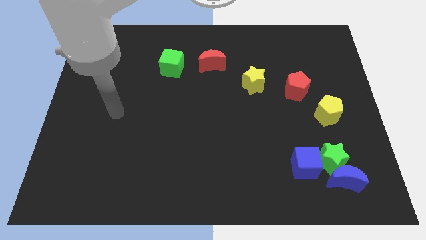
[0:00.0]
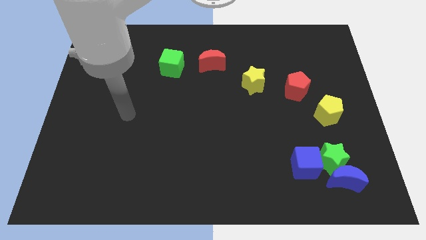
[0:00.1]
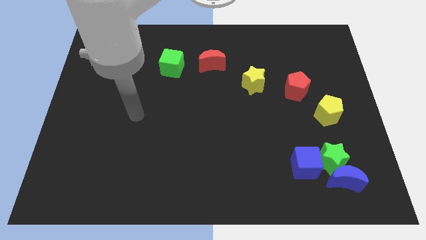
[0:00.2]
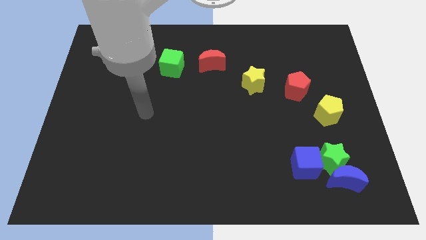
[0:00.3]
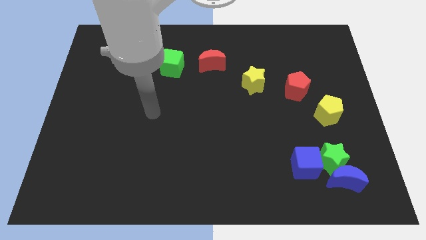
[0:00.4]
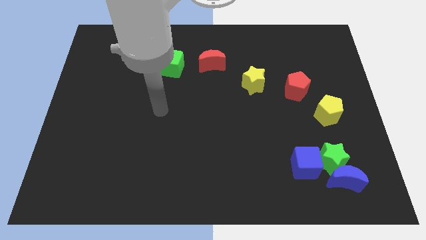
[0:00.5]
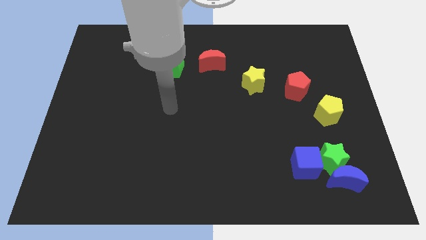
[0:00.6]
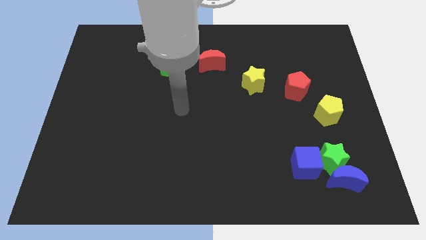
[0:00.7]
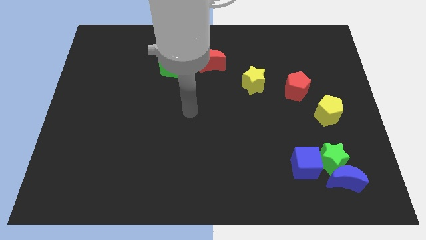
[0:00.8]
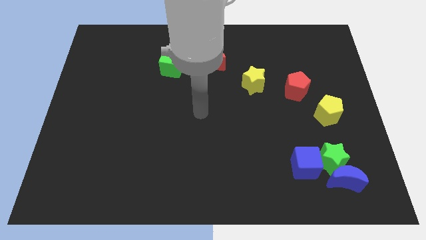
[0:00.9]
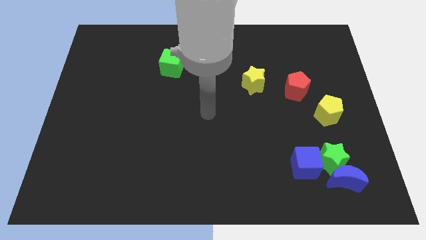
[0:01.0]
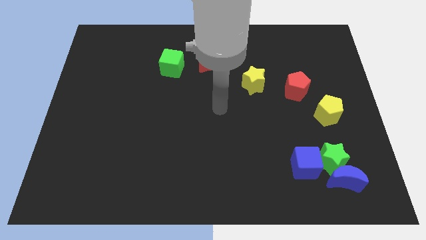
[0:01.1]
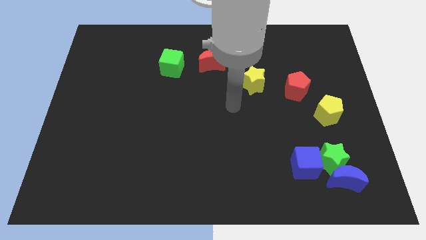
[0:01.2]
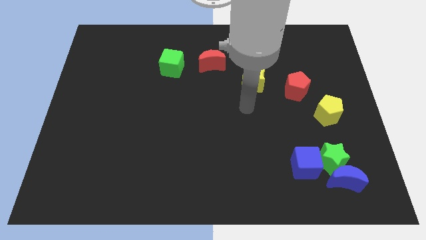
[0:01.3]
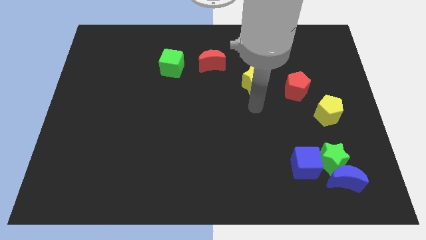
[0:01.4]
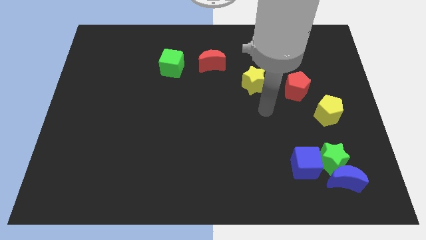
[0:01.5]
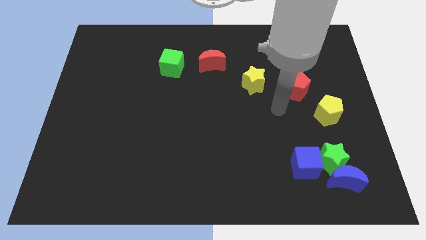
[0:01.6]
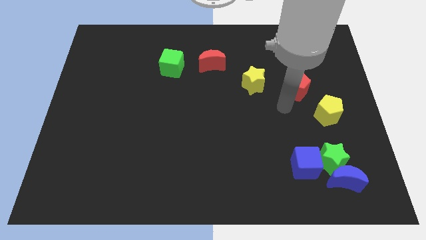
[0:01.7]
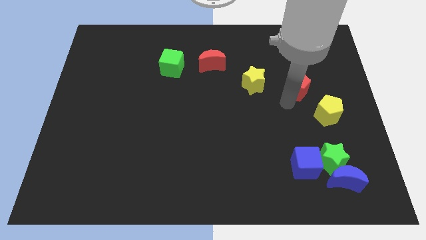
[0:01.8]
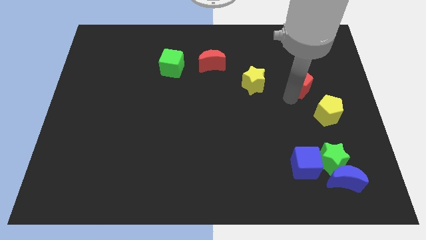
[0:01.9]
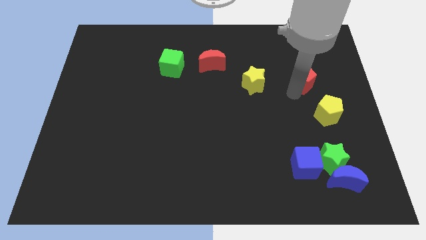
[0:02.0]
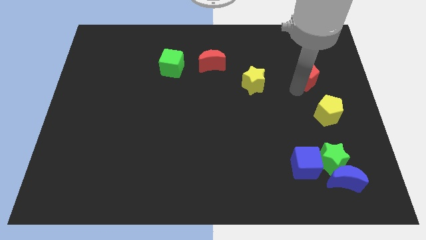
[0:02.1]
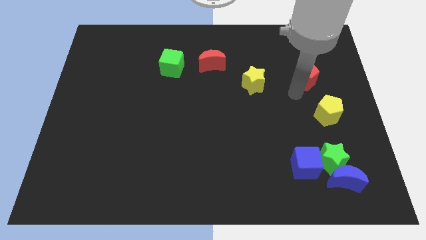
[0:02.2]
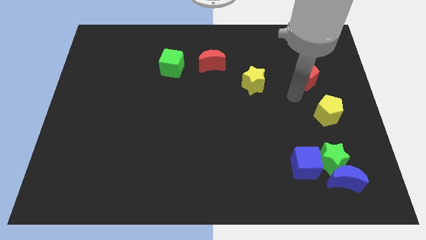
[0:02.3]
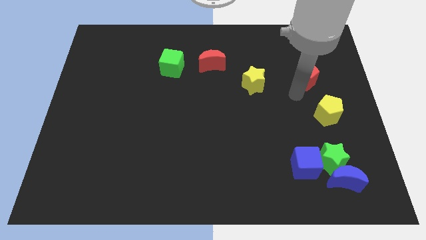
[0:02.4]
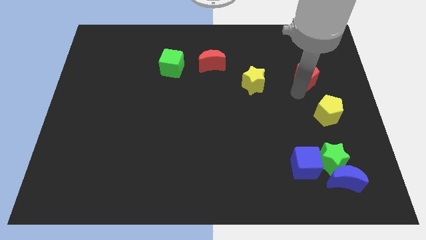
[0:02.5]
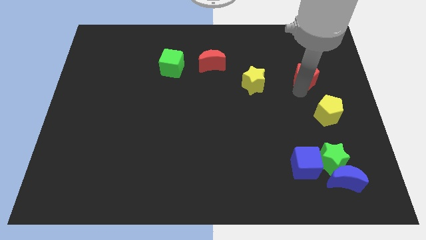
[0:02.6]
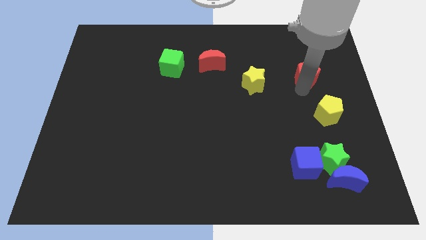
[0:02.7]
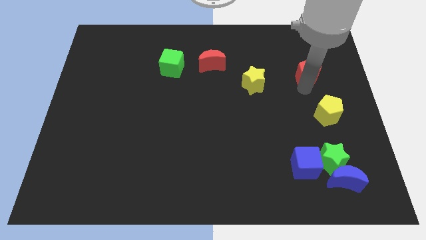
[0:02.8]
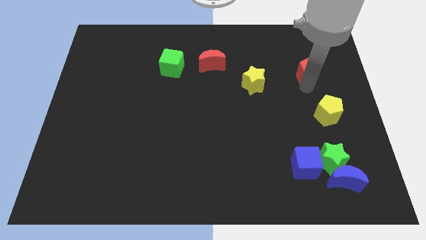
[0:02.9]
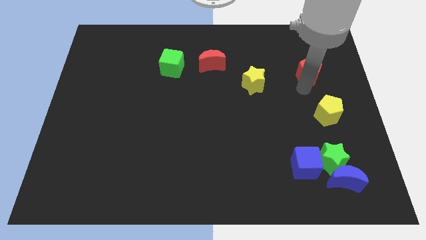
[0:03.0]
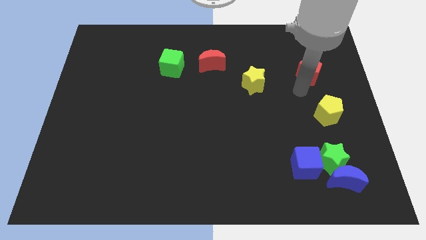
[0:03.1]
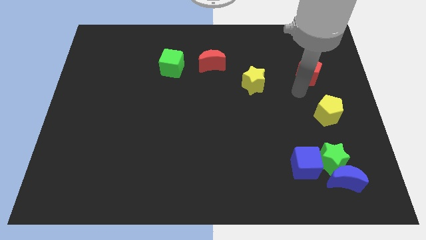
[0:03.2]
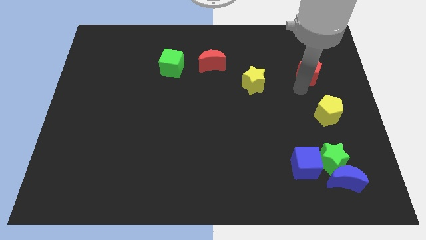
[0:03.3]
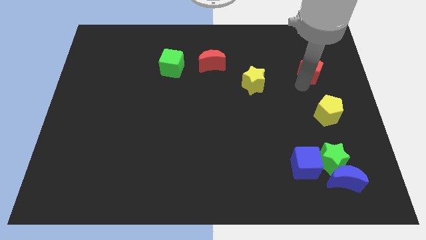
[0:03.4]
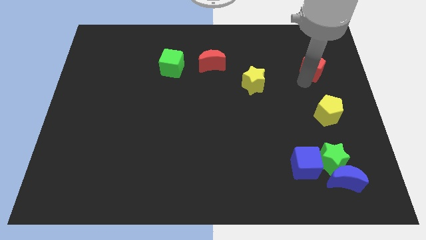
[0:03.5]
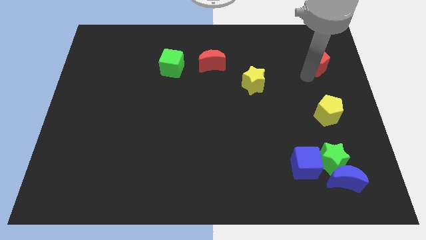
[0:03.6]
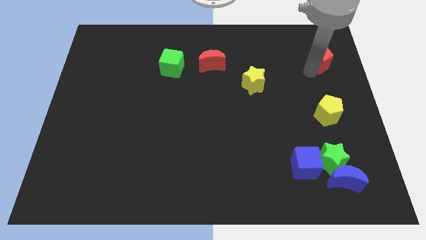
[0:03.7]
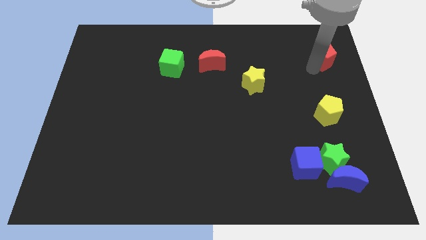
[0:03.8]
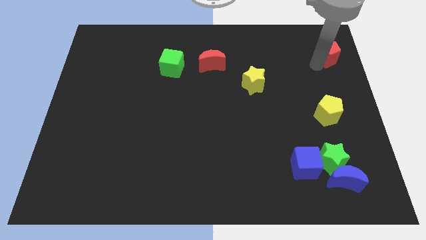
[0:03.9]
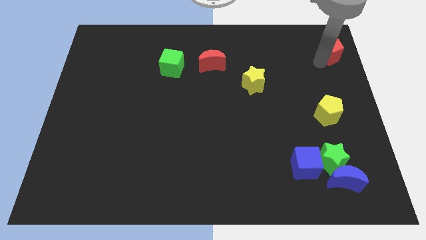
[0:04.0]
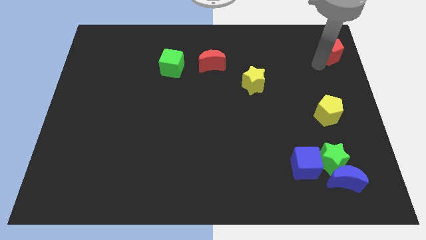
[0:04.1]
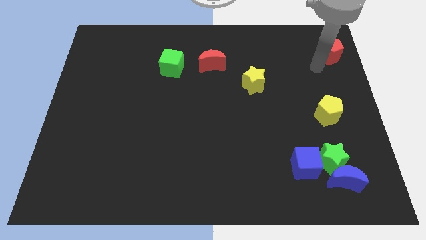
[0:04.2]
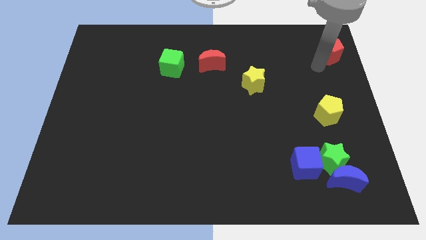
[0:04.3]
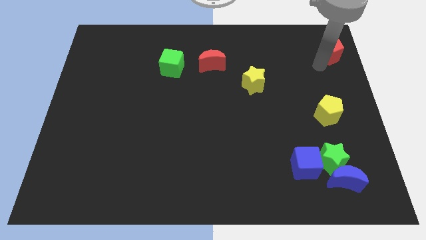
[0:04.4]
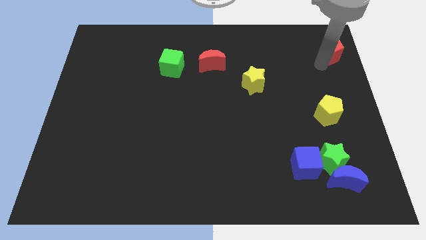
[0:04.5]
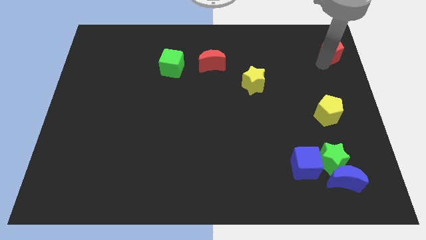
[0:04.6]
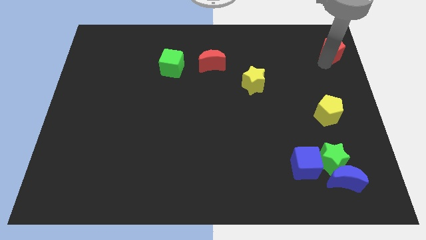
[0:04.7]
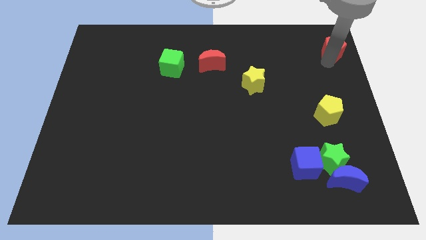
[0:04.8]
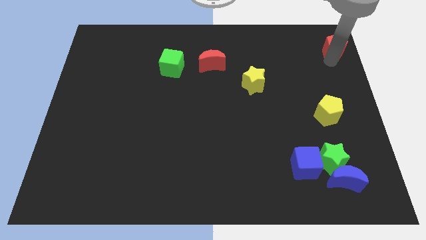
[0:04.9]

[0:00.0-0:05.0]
move the red pentagon to the top right

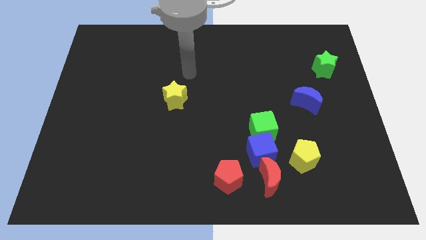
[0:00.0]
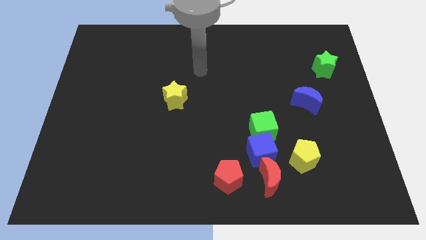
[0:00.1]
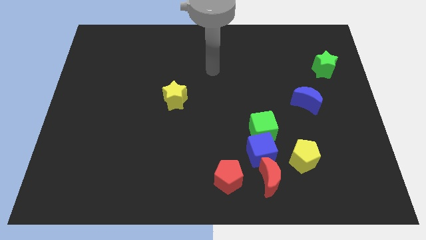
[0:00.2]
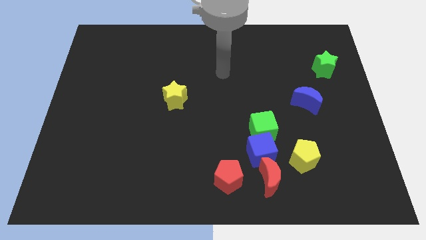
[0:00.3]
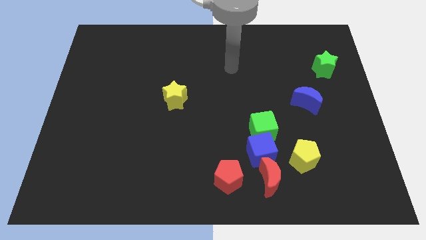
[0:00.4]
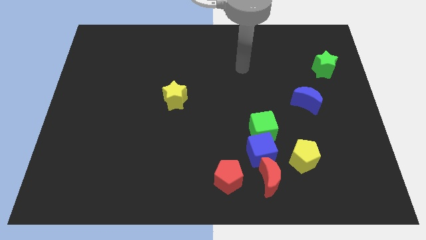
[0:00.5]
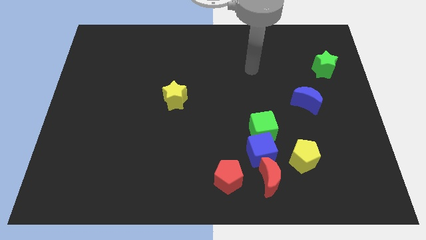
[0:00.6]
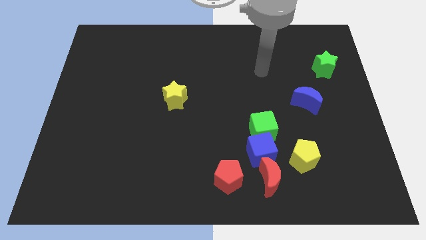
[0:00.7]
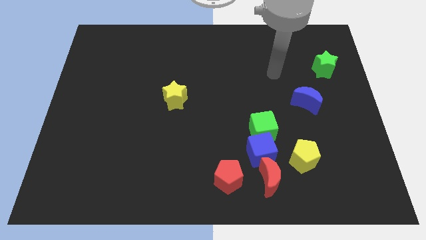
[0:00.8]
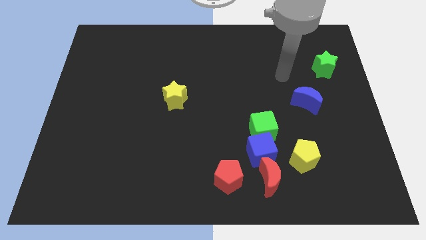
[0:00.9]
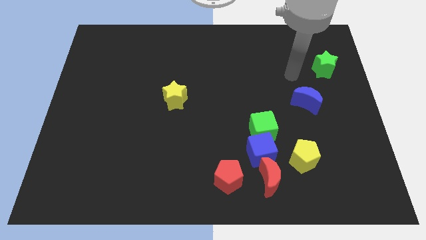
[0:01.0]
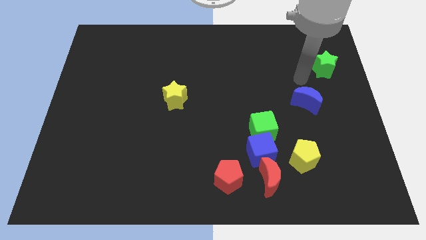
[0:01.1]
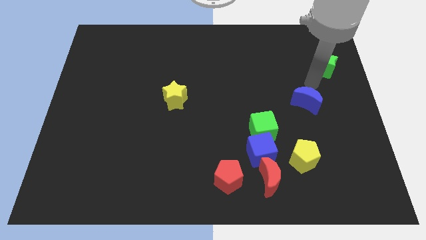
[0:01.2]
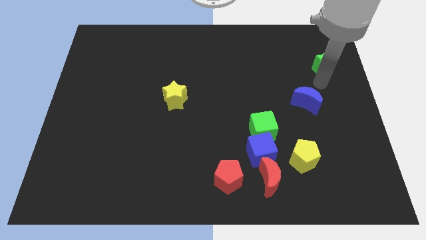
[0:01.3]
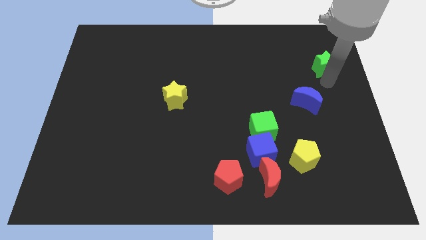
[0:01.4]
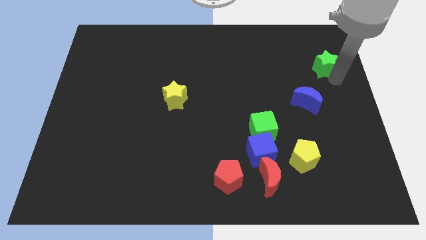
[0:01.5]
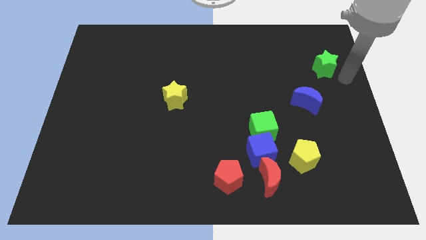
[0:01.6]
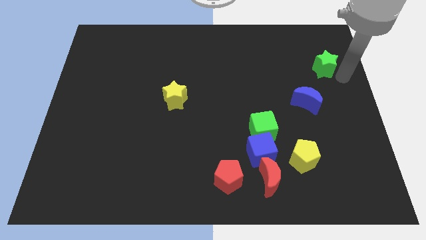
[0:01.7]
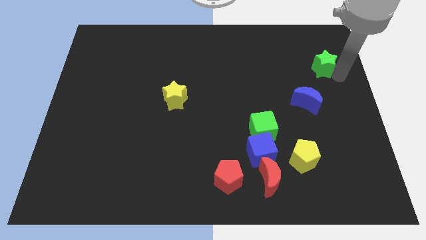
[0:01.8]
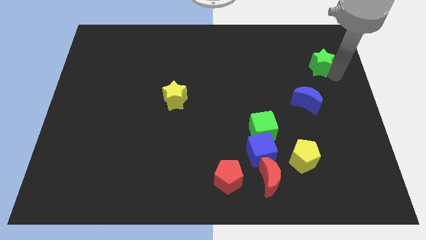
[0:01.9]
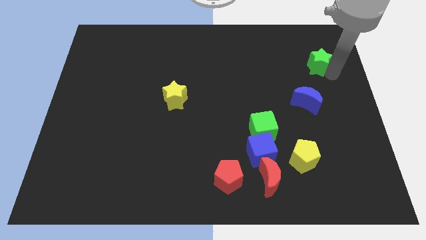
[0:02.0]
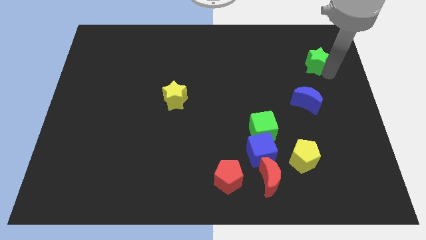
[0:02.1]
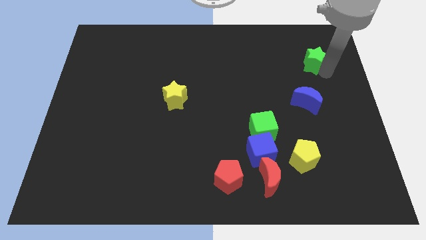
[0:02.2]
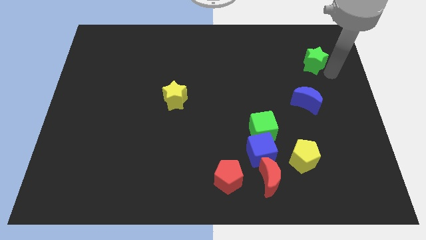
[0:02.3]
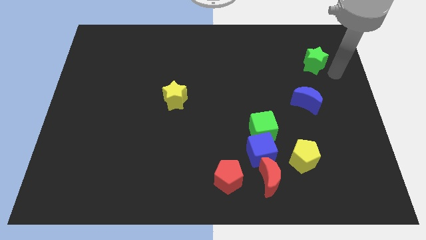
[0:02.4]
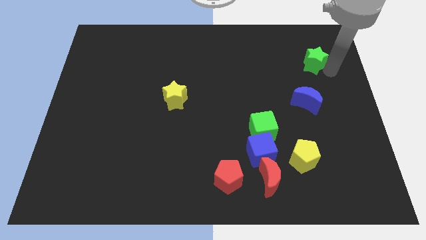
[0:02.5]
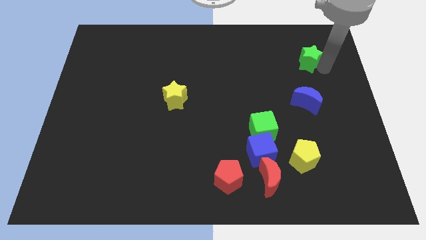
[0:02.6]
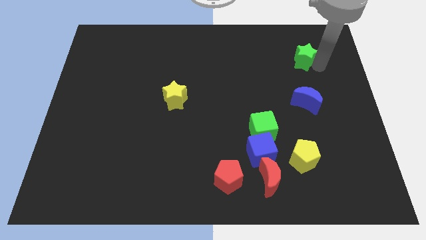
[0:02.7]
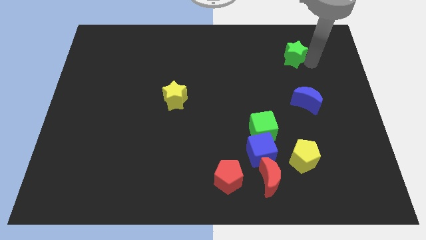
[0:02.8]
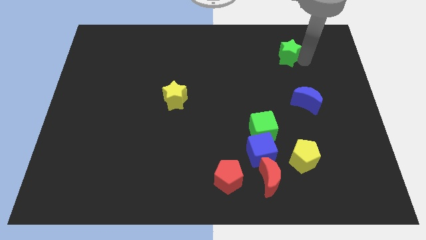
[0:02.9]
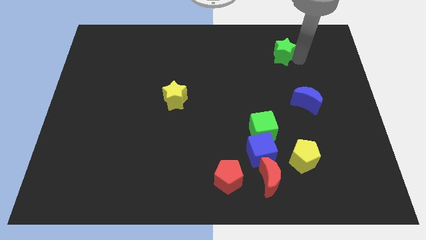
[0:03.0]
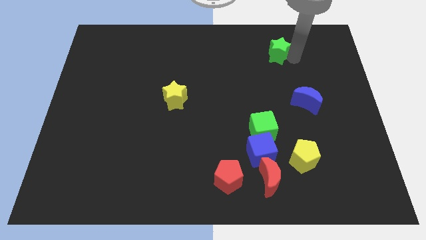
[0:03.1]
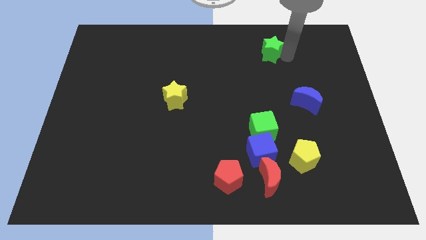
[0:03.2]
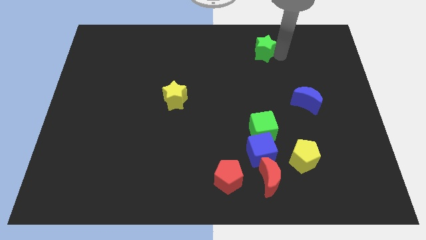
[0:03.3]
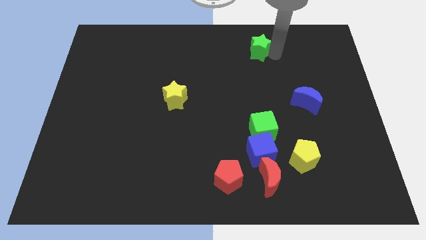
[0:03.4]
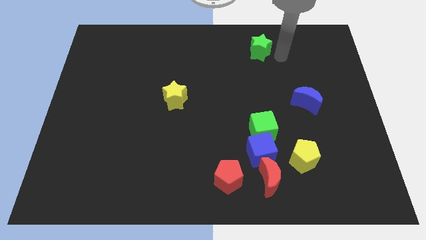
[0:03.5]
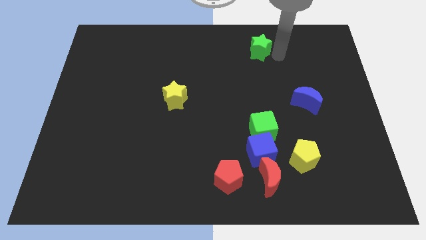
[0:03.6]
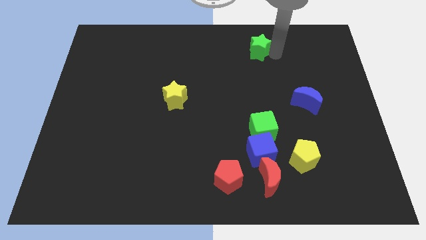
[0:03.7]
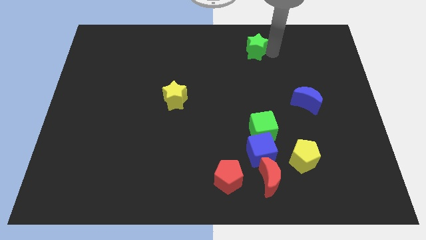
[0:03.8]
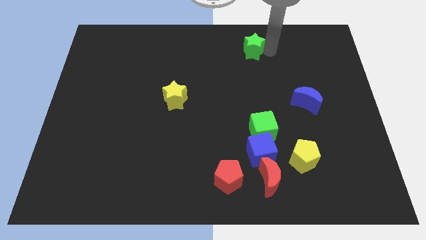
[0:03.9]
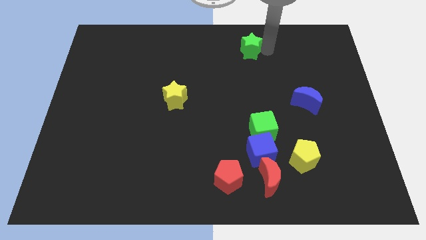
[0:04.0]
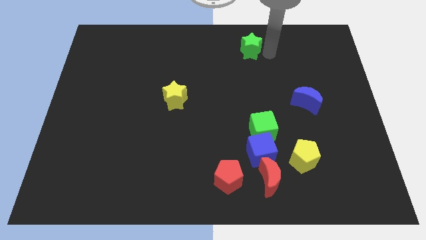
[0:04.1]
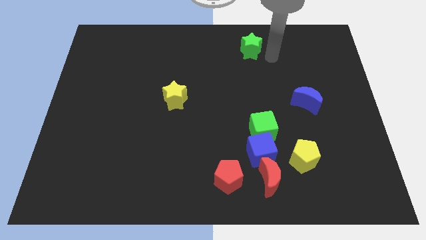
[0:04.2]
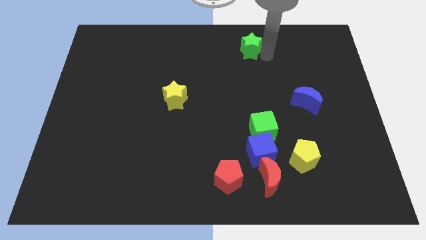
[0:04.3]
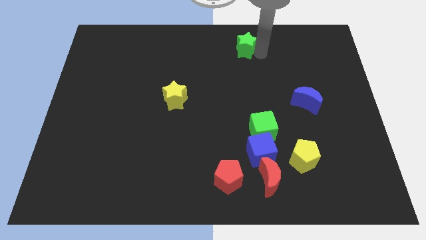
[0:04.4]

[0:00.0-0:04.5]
move the green star to the top side
